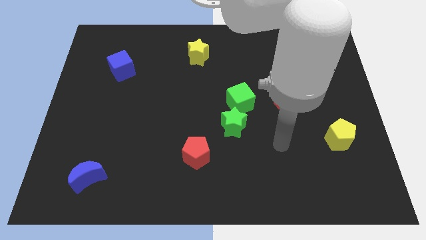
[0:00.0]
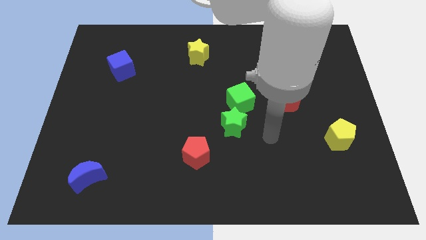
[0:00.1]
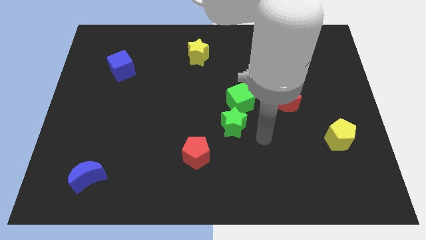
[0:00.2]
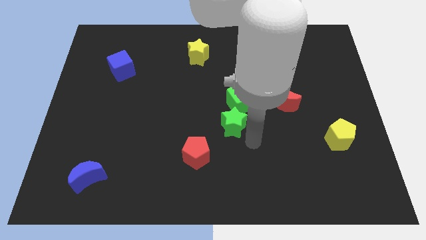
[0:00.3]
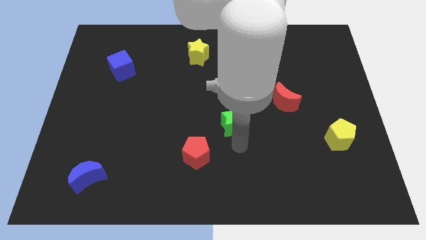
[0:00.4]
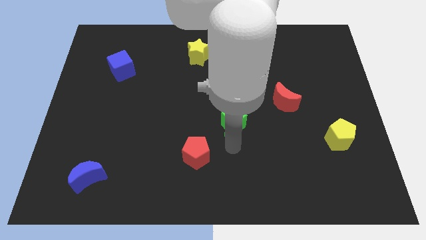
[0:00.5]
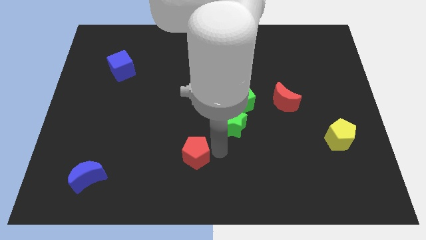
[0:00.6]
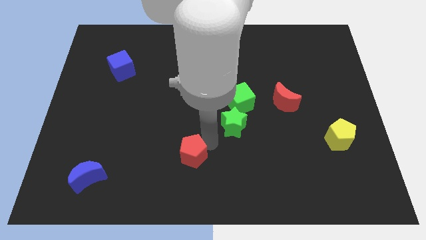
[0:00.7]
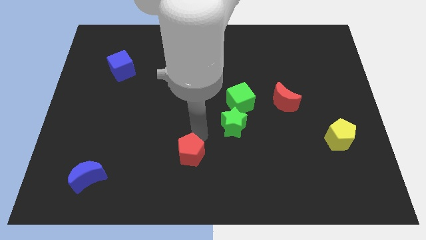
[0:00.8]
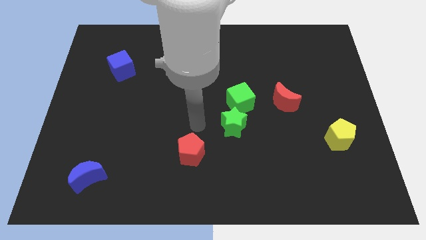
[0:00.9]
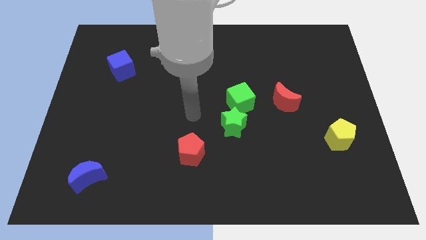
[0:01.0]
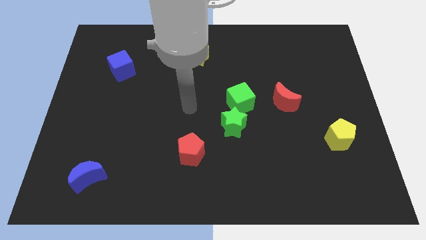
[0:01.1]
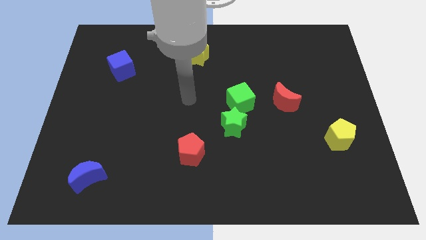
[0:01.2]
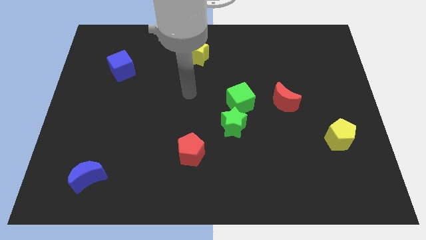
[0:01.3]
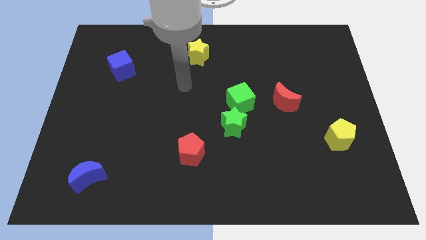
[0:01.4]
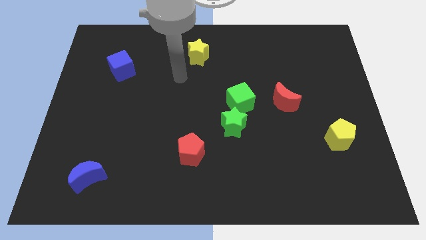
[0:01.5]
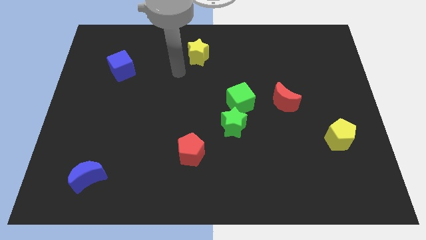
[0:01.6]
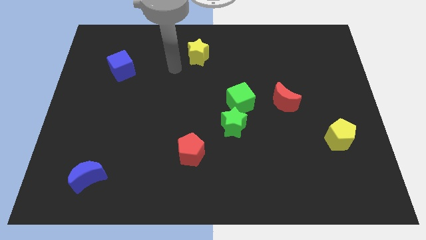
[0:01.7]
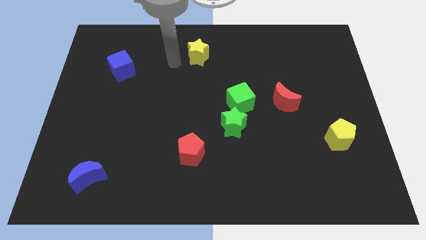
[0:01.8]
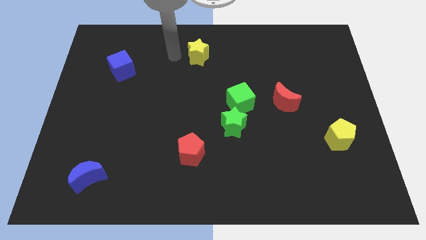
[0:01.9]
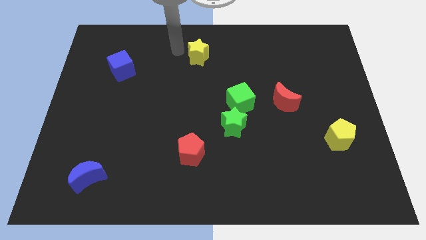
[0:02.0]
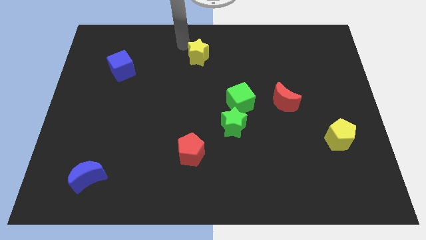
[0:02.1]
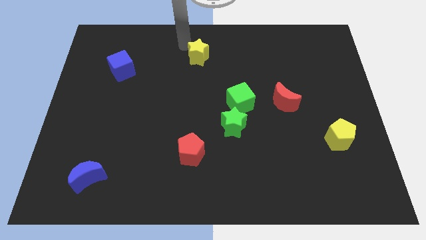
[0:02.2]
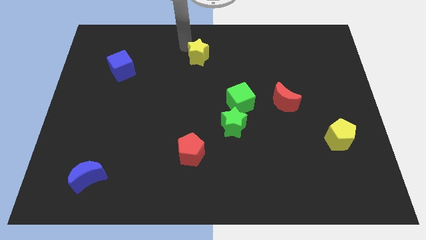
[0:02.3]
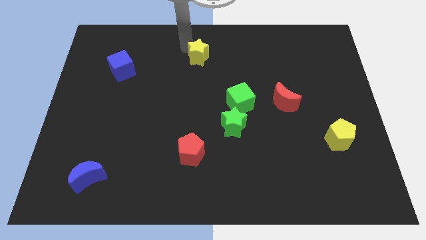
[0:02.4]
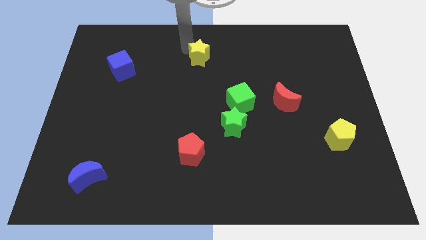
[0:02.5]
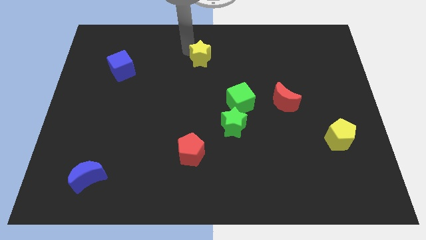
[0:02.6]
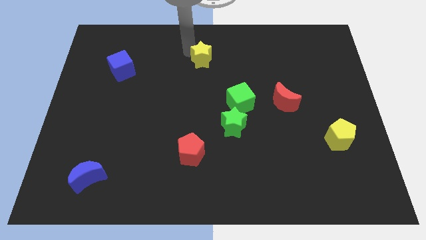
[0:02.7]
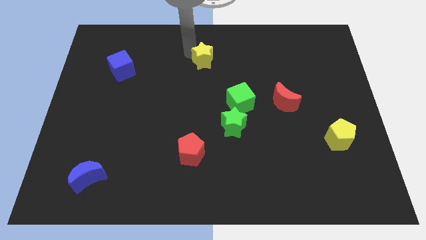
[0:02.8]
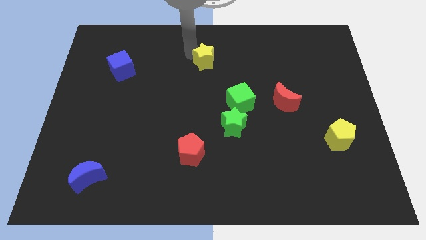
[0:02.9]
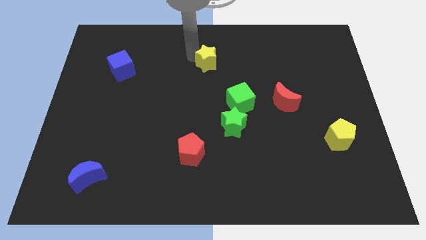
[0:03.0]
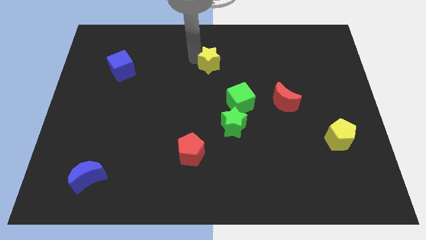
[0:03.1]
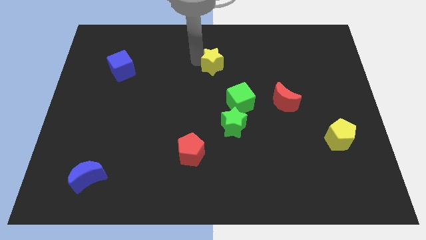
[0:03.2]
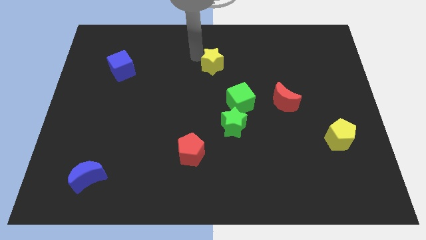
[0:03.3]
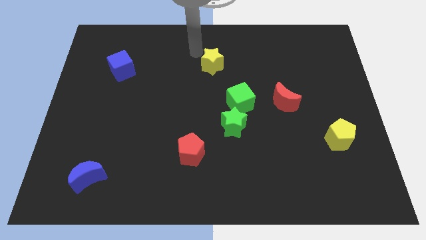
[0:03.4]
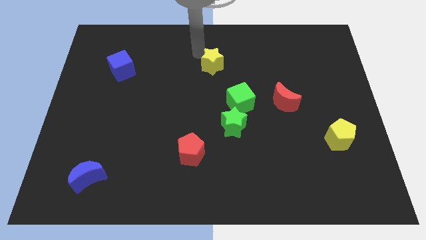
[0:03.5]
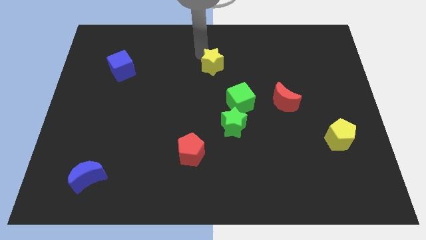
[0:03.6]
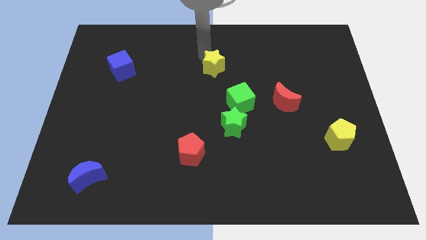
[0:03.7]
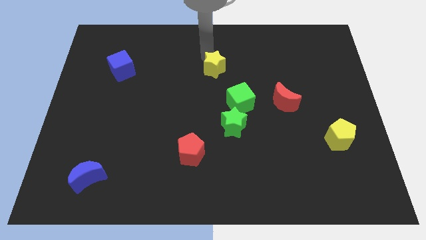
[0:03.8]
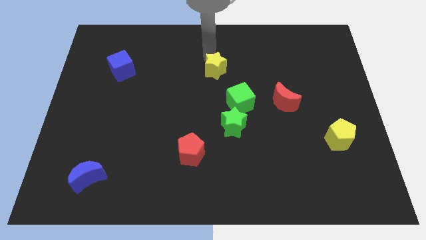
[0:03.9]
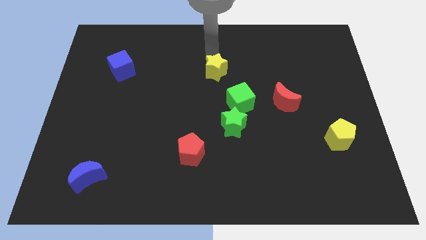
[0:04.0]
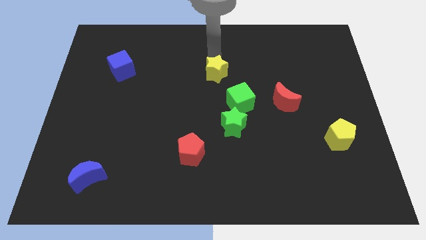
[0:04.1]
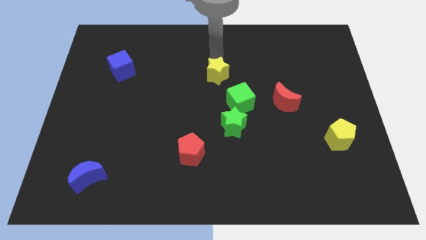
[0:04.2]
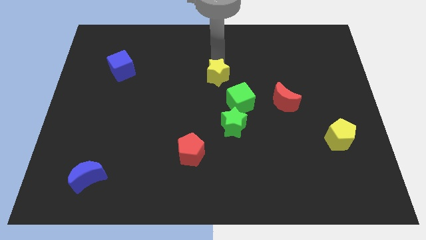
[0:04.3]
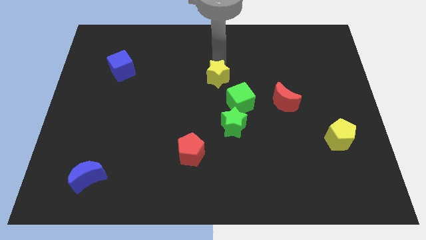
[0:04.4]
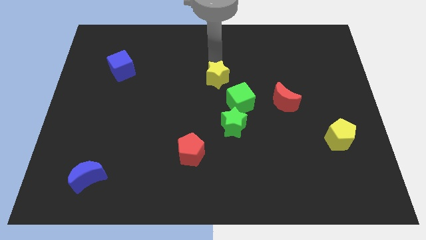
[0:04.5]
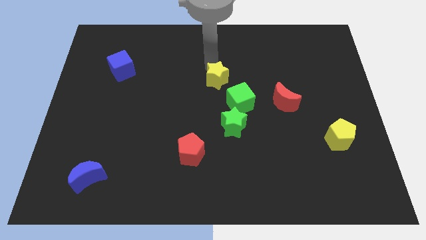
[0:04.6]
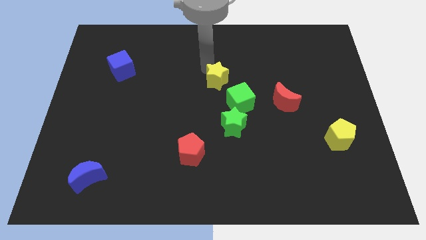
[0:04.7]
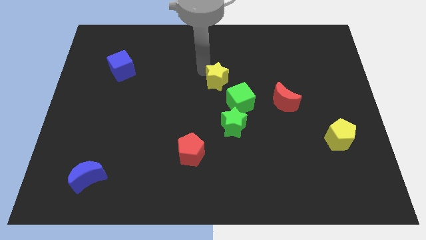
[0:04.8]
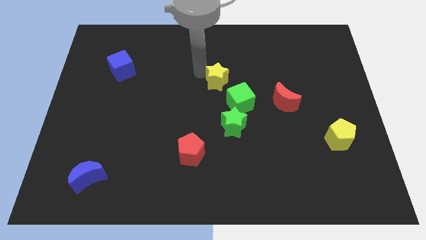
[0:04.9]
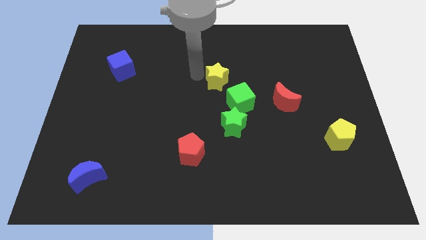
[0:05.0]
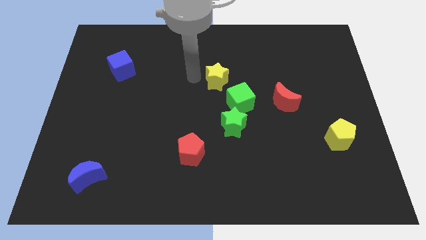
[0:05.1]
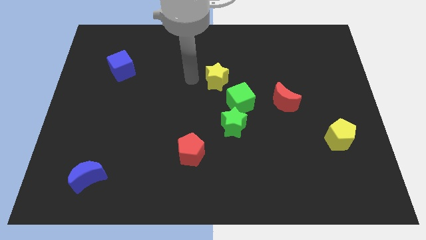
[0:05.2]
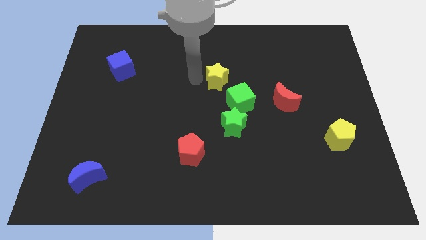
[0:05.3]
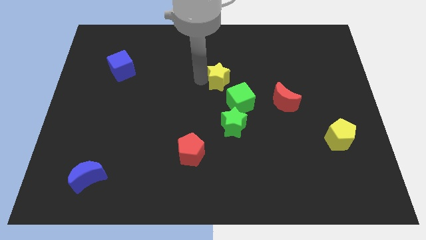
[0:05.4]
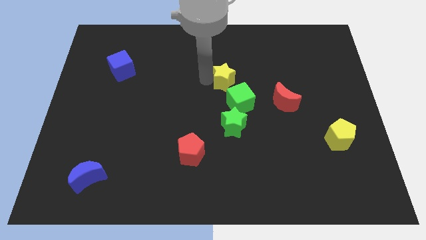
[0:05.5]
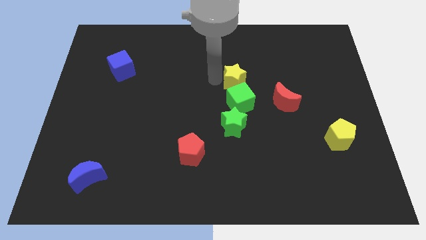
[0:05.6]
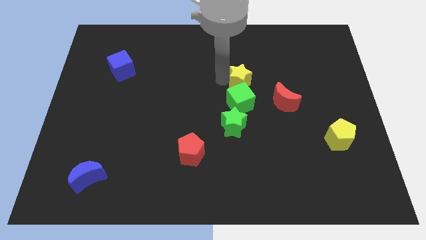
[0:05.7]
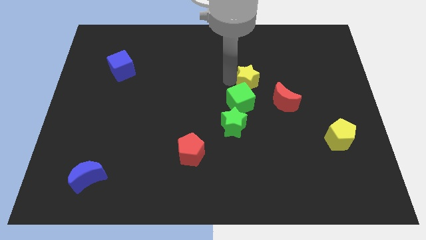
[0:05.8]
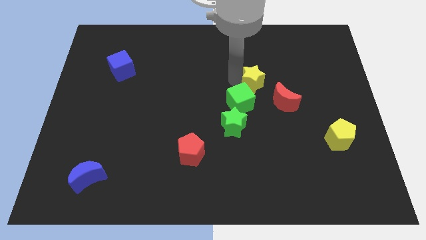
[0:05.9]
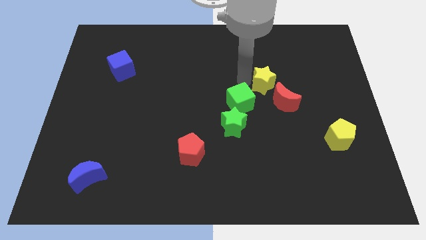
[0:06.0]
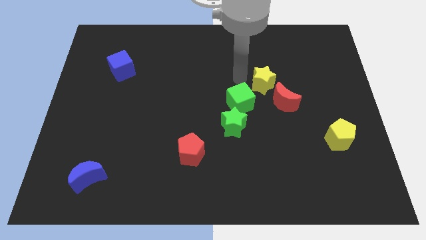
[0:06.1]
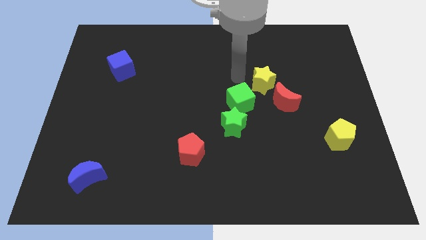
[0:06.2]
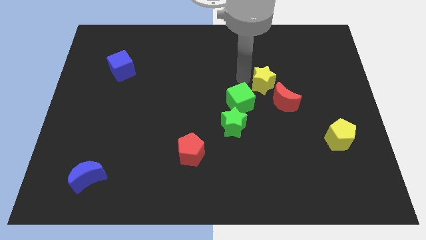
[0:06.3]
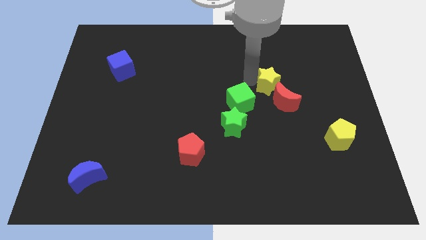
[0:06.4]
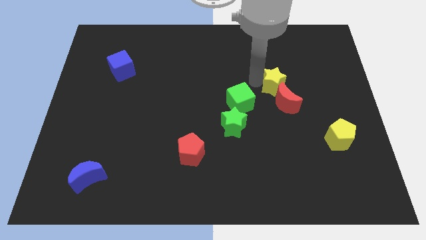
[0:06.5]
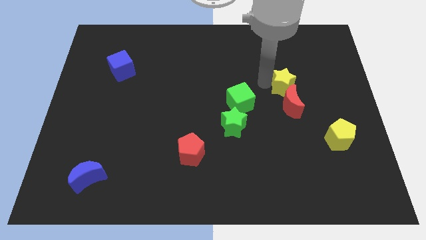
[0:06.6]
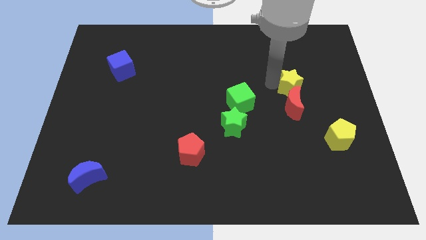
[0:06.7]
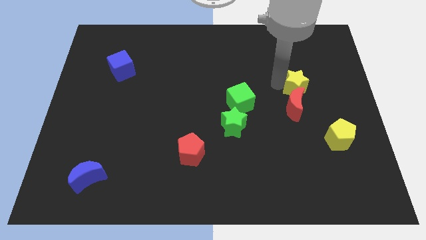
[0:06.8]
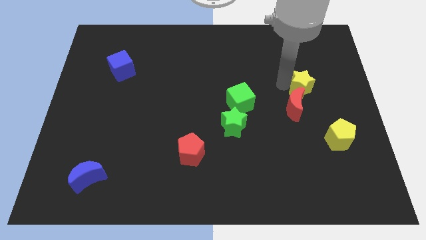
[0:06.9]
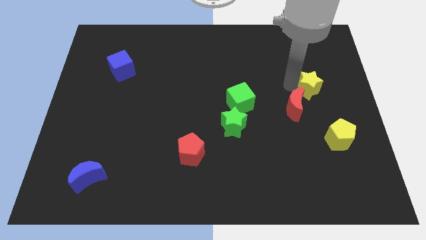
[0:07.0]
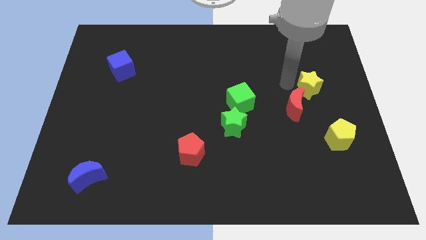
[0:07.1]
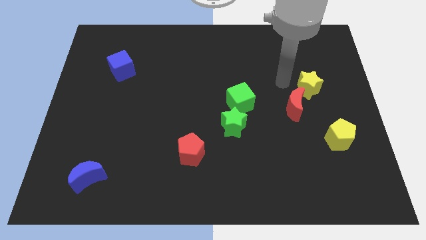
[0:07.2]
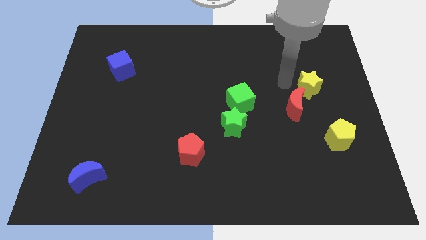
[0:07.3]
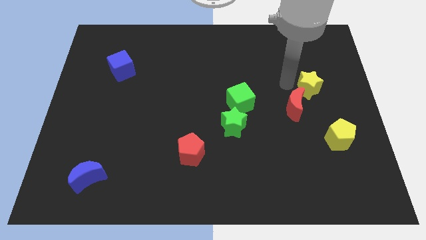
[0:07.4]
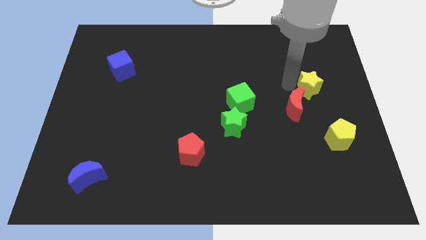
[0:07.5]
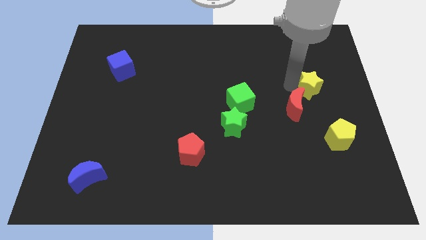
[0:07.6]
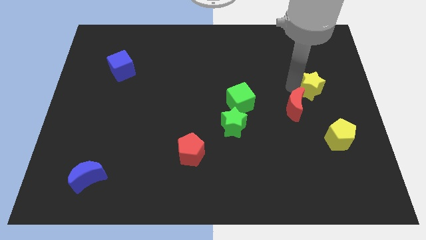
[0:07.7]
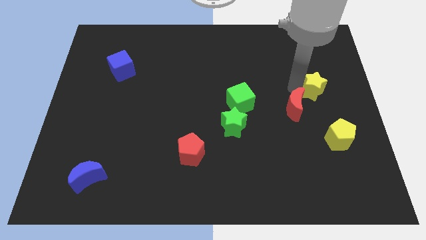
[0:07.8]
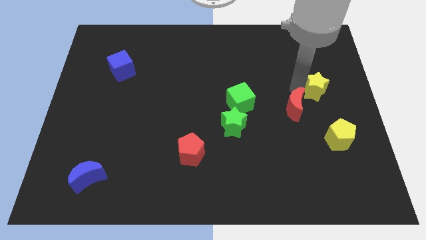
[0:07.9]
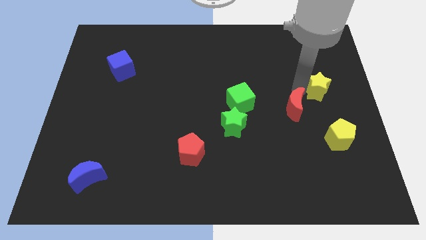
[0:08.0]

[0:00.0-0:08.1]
push the yellow star to the right side of the board
